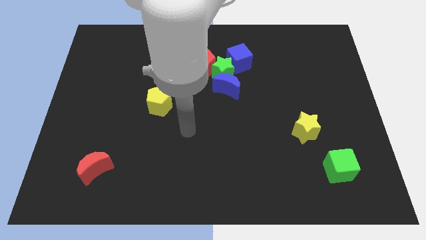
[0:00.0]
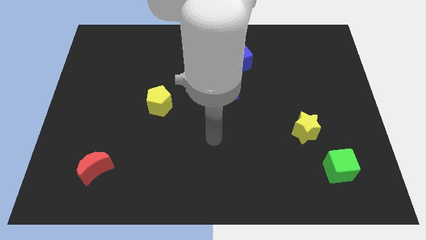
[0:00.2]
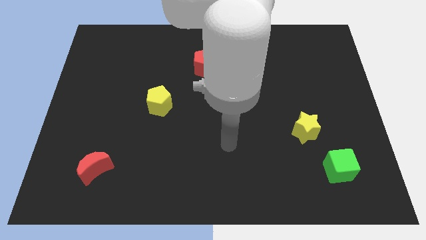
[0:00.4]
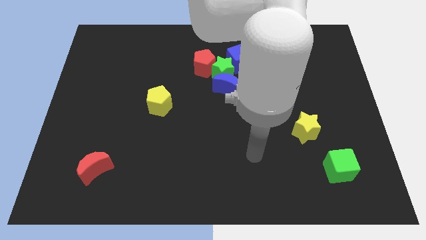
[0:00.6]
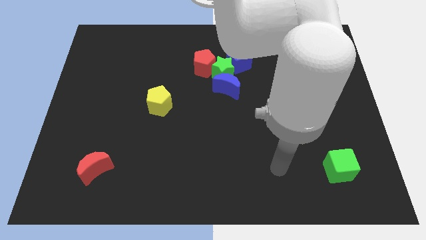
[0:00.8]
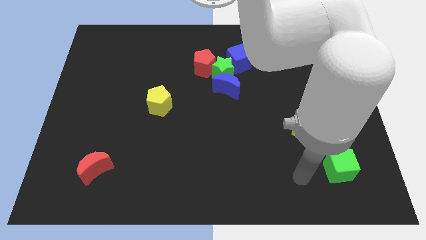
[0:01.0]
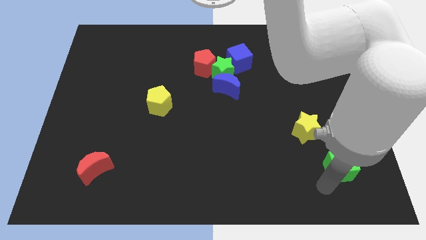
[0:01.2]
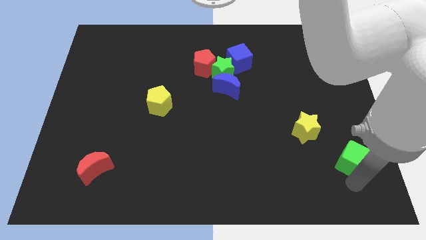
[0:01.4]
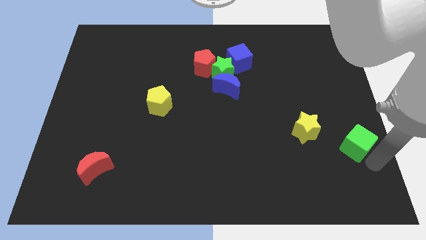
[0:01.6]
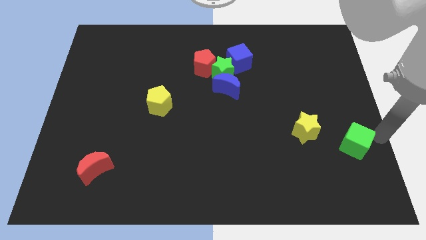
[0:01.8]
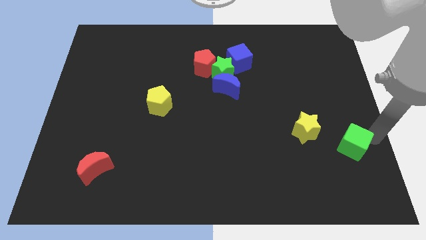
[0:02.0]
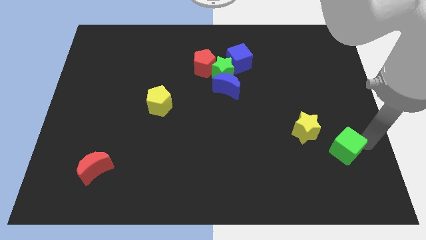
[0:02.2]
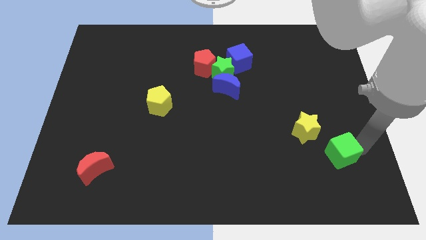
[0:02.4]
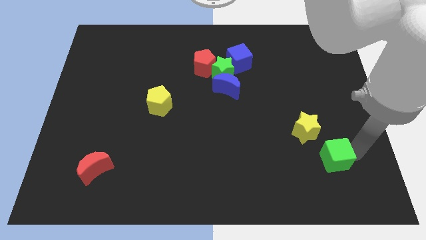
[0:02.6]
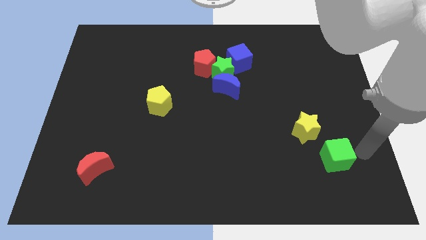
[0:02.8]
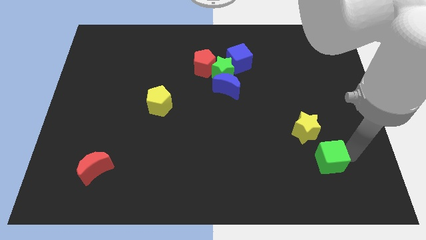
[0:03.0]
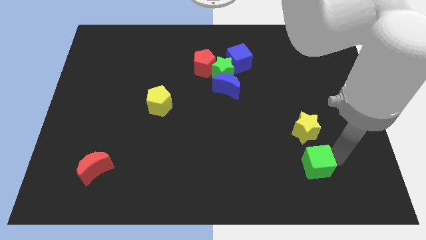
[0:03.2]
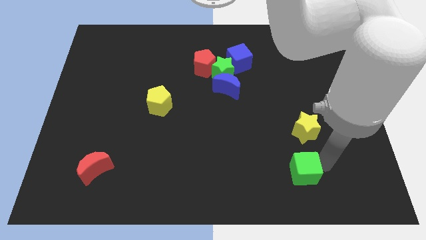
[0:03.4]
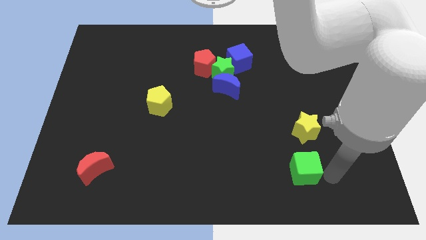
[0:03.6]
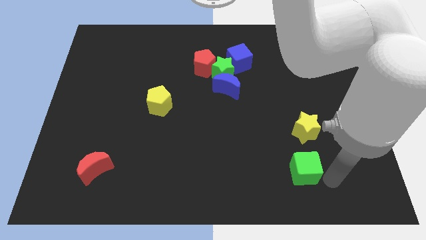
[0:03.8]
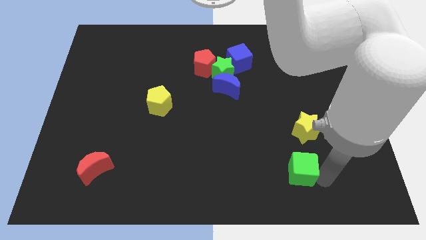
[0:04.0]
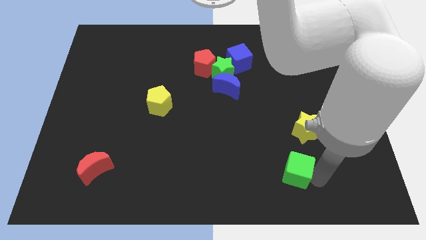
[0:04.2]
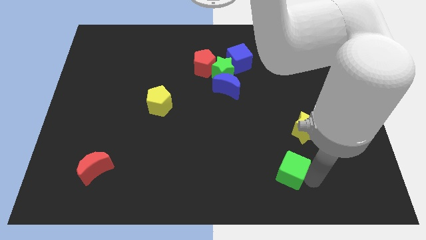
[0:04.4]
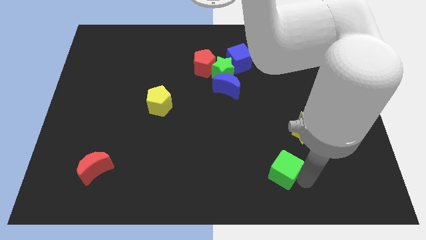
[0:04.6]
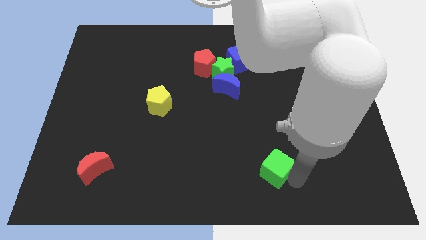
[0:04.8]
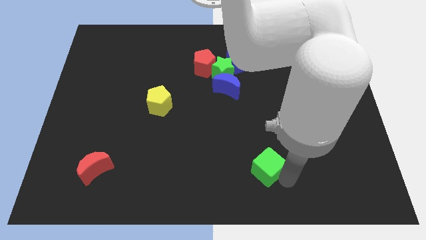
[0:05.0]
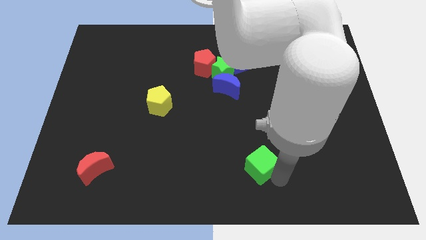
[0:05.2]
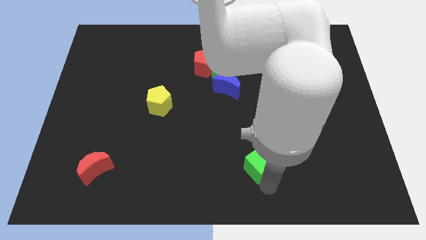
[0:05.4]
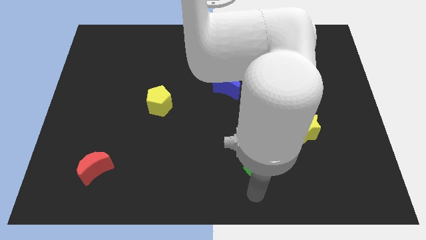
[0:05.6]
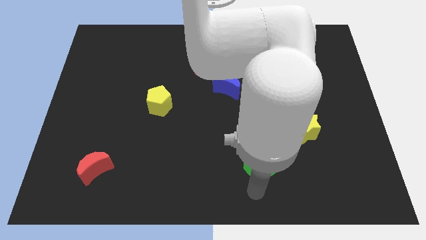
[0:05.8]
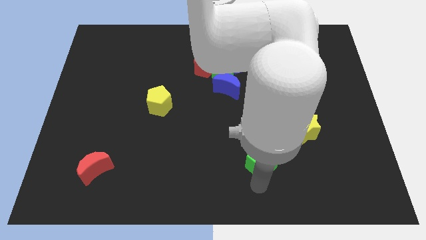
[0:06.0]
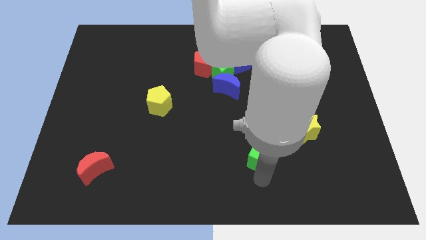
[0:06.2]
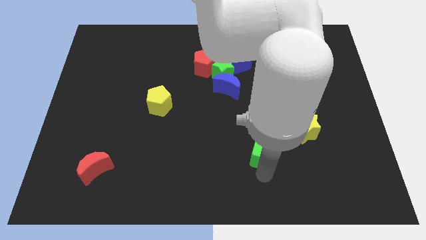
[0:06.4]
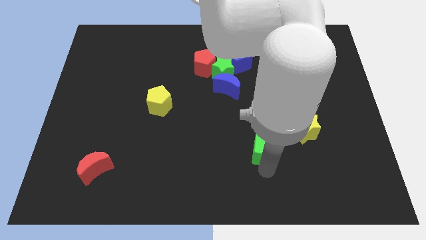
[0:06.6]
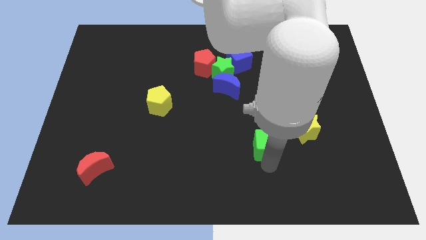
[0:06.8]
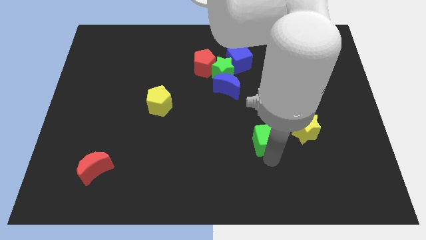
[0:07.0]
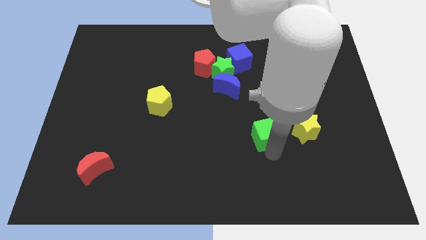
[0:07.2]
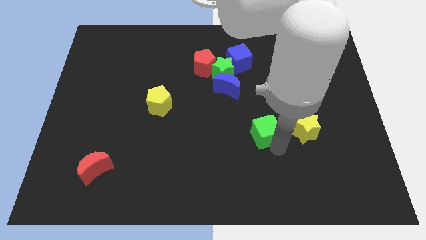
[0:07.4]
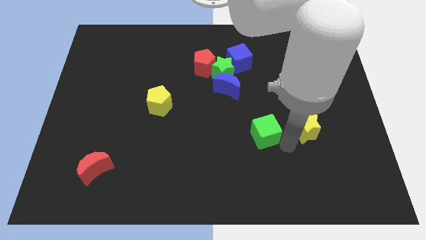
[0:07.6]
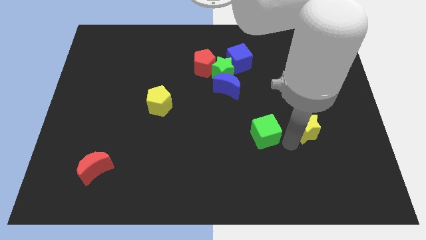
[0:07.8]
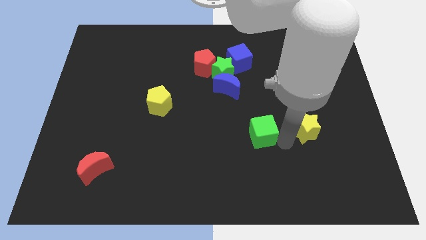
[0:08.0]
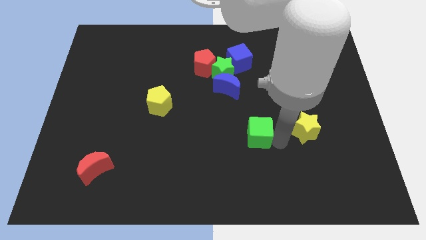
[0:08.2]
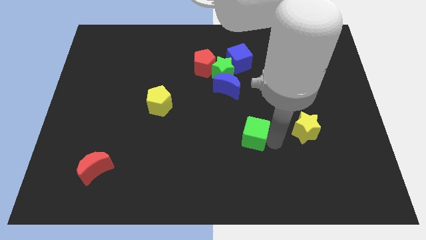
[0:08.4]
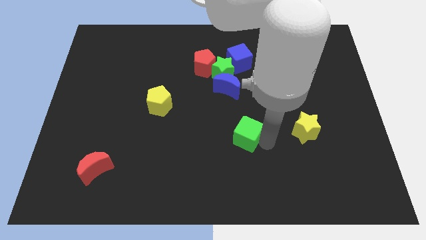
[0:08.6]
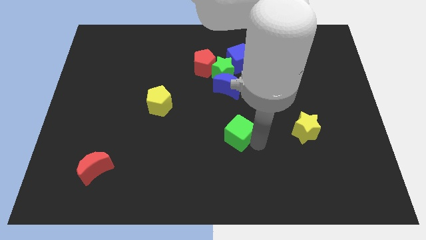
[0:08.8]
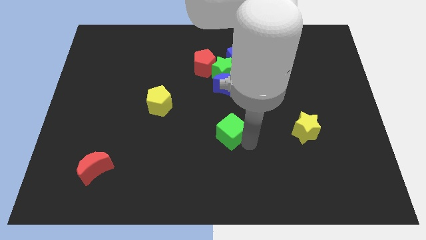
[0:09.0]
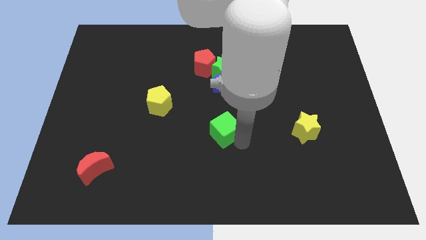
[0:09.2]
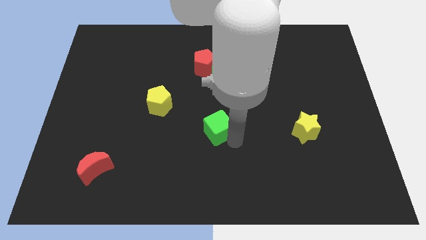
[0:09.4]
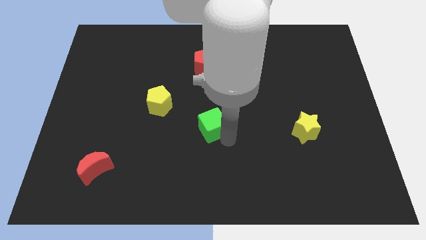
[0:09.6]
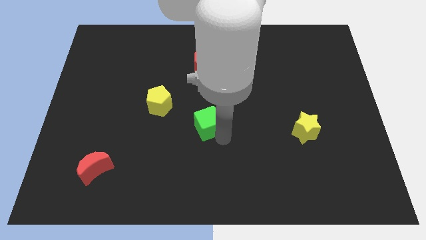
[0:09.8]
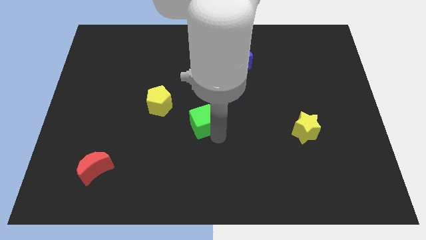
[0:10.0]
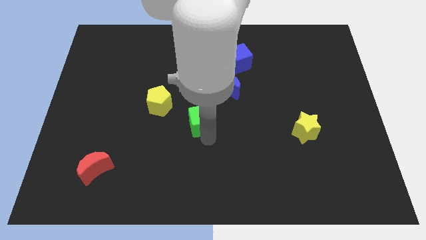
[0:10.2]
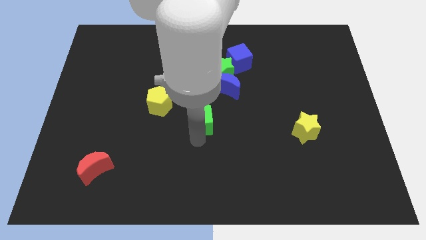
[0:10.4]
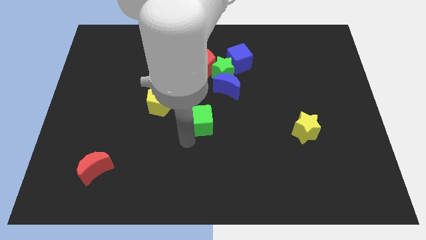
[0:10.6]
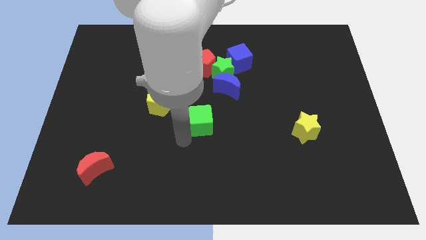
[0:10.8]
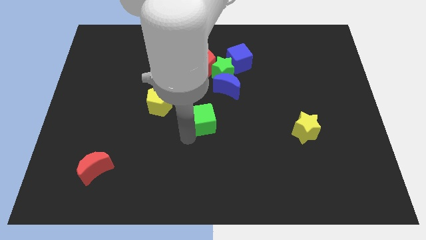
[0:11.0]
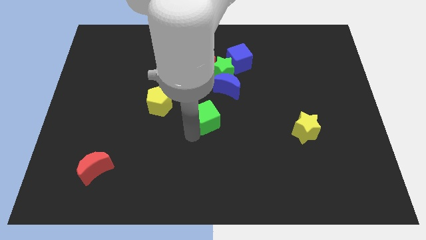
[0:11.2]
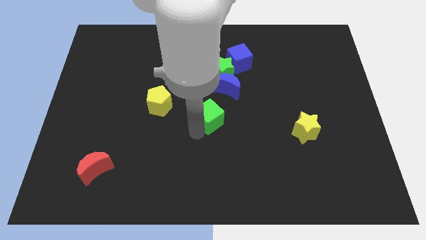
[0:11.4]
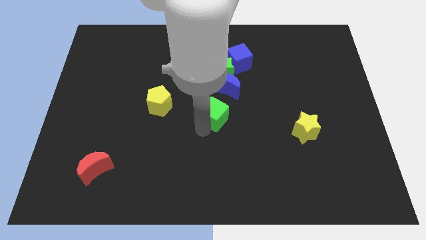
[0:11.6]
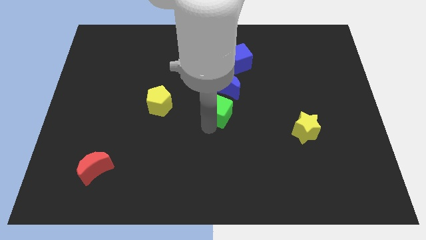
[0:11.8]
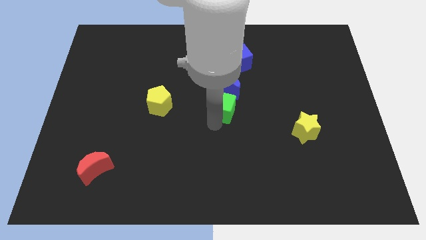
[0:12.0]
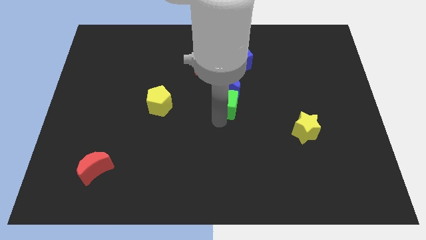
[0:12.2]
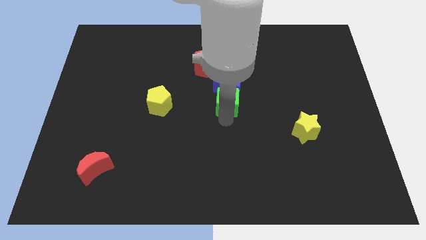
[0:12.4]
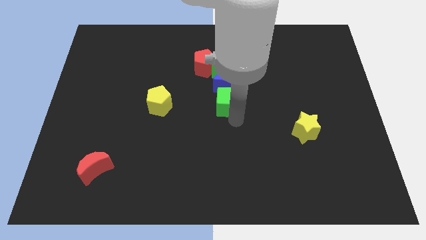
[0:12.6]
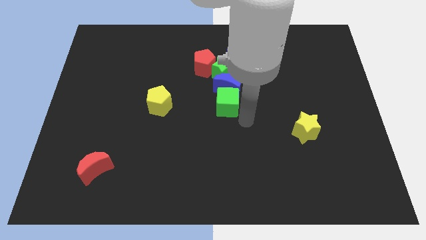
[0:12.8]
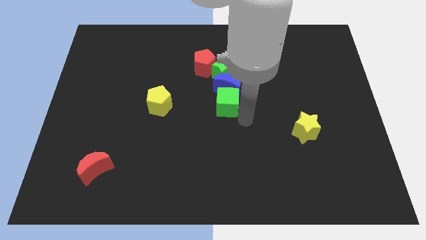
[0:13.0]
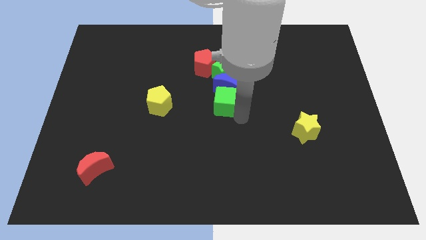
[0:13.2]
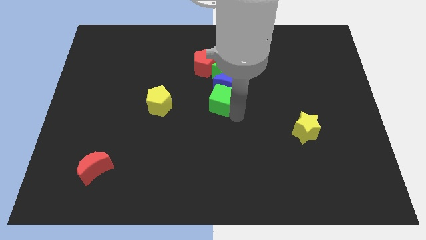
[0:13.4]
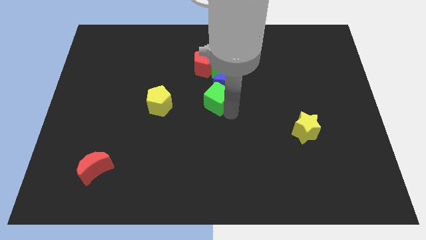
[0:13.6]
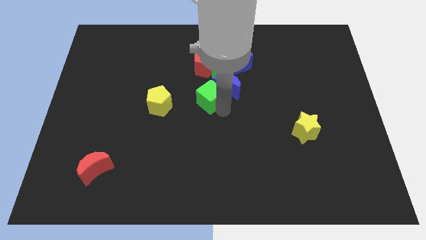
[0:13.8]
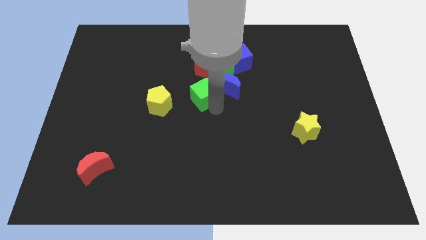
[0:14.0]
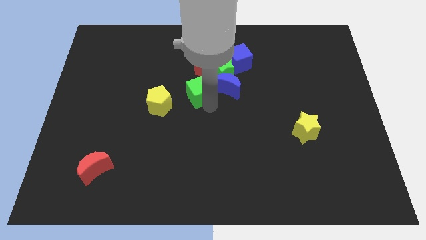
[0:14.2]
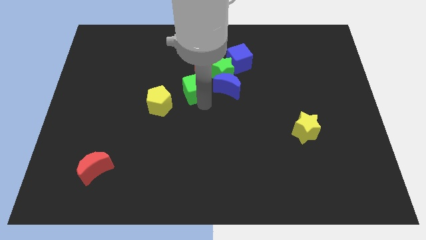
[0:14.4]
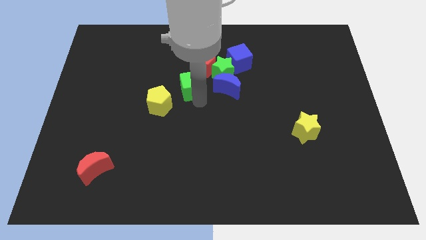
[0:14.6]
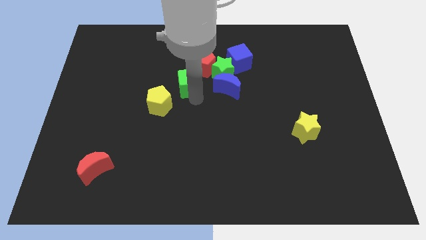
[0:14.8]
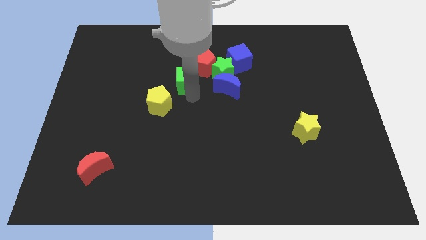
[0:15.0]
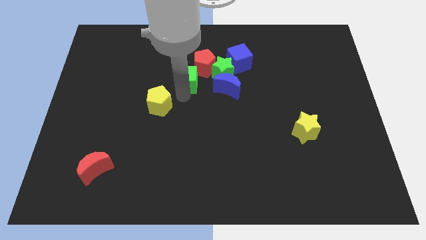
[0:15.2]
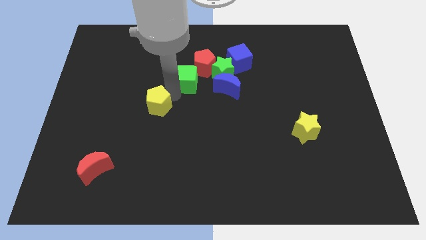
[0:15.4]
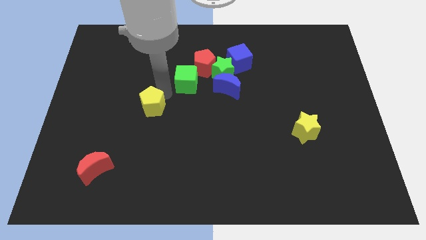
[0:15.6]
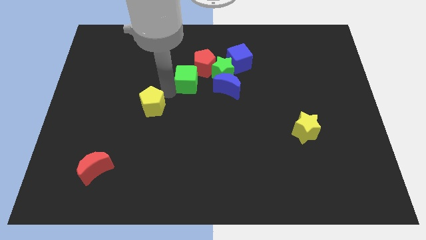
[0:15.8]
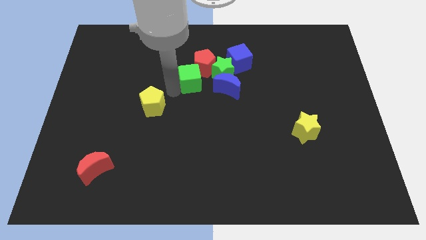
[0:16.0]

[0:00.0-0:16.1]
slide the green cube to the red pentagon
